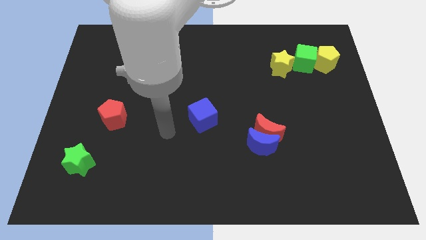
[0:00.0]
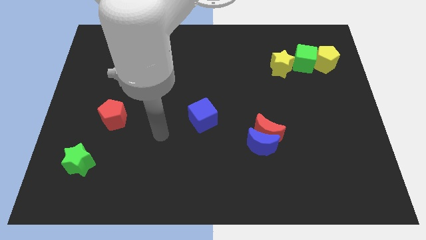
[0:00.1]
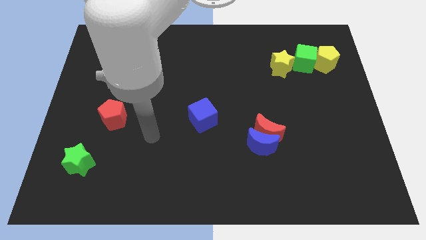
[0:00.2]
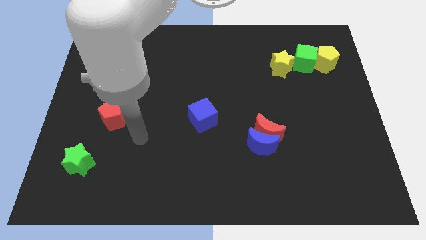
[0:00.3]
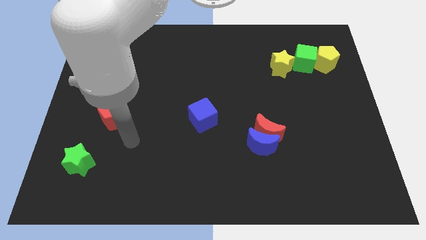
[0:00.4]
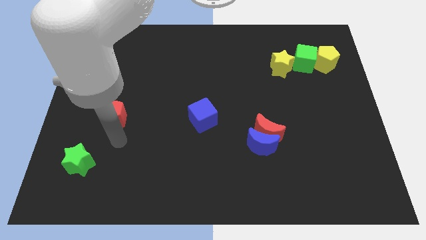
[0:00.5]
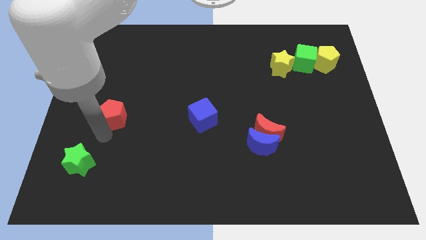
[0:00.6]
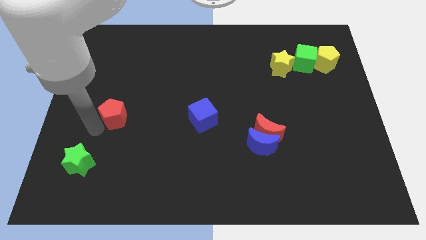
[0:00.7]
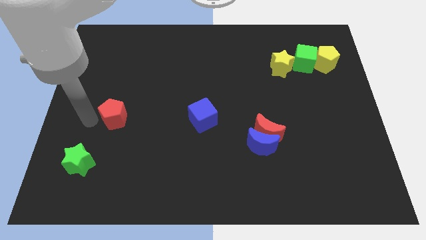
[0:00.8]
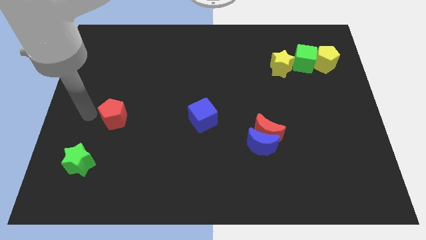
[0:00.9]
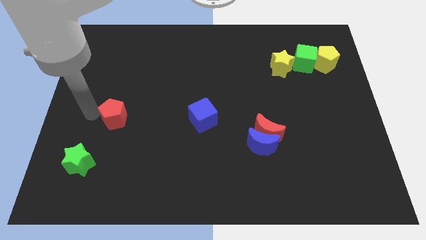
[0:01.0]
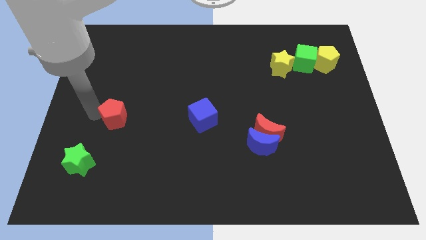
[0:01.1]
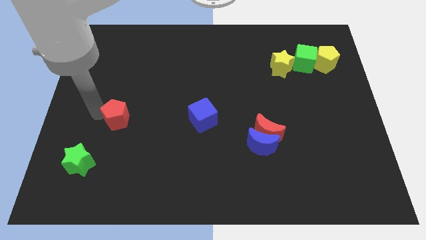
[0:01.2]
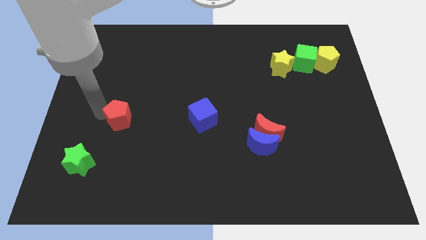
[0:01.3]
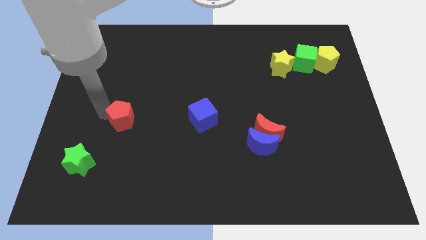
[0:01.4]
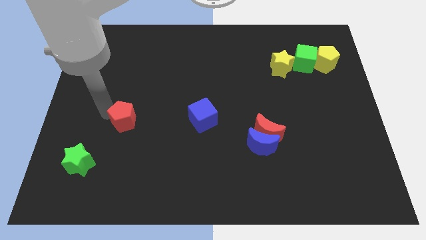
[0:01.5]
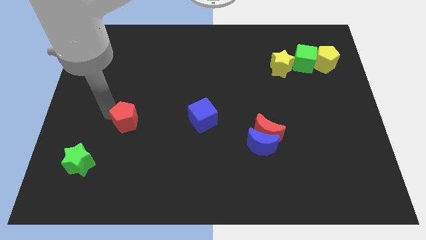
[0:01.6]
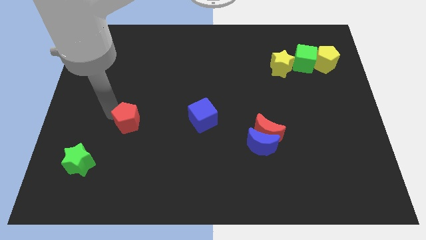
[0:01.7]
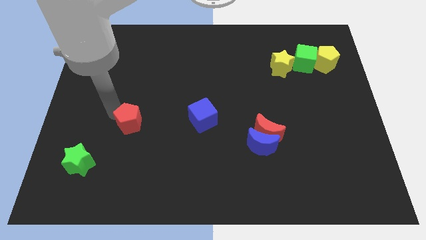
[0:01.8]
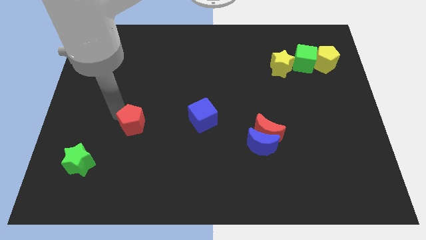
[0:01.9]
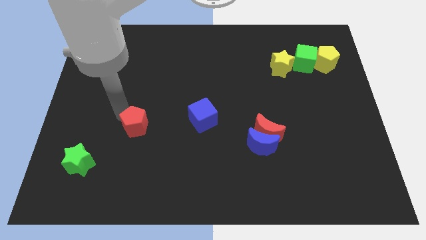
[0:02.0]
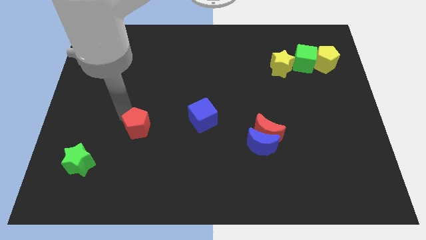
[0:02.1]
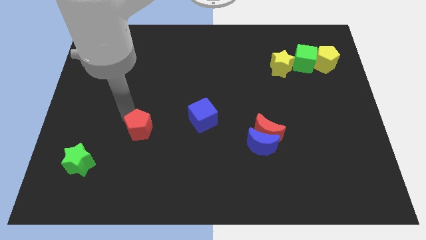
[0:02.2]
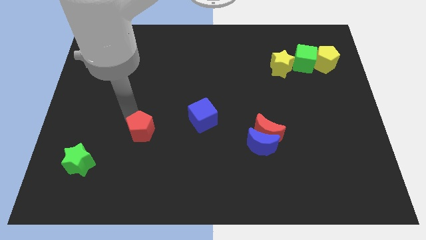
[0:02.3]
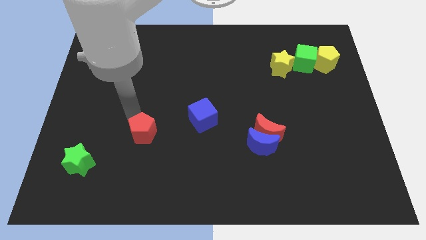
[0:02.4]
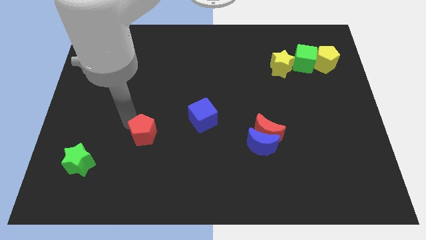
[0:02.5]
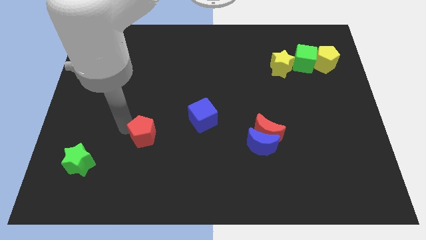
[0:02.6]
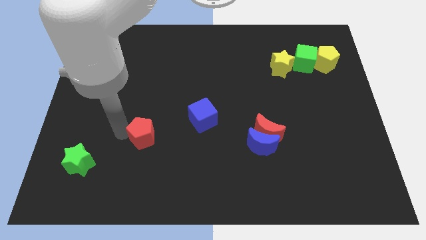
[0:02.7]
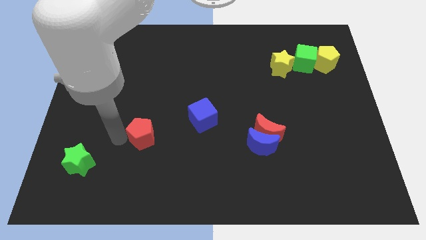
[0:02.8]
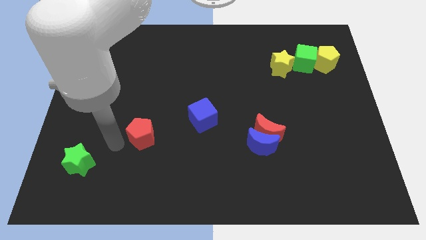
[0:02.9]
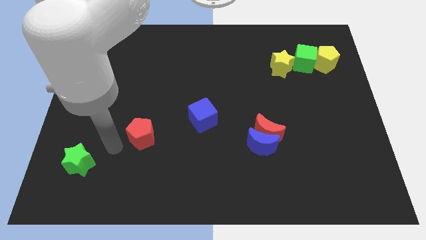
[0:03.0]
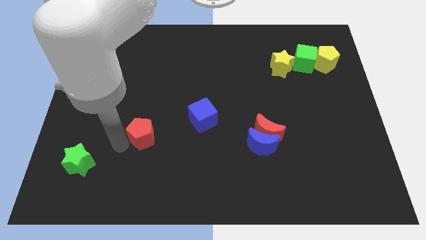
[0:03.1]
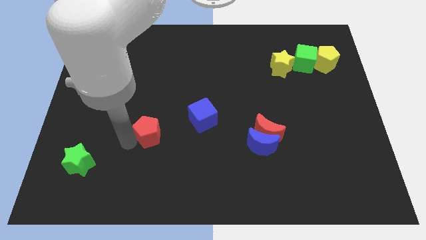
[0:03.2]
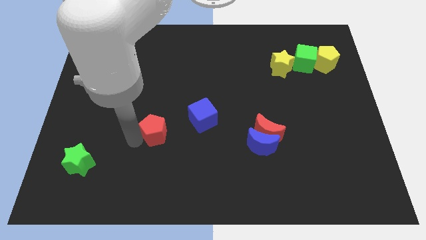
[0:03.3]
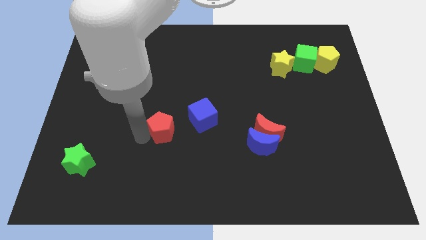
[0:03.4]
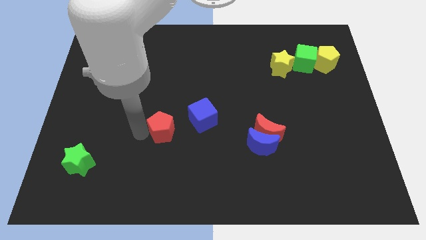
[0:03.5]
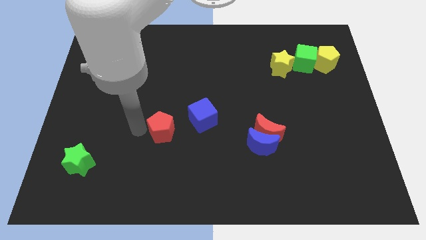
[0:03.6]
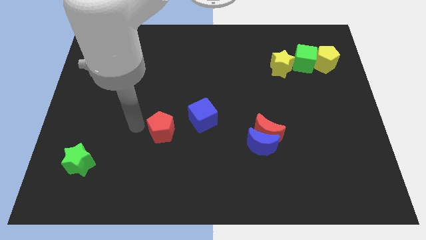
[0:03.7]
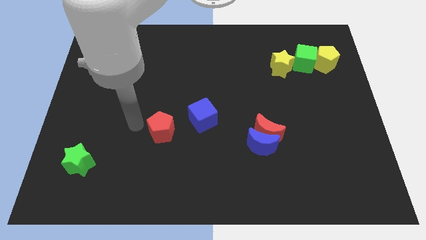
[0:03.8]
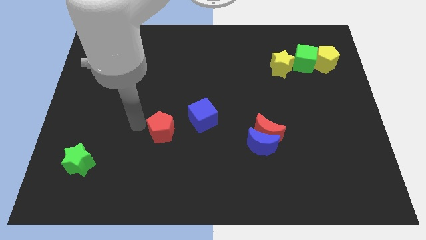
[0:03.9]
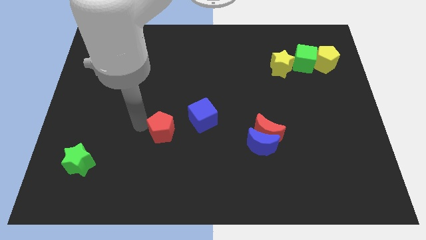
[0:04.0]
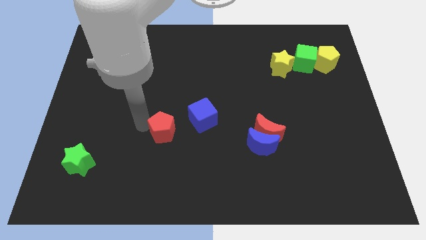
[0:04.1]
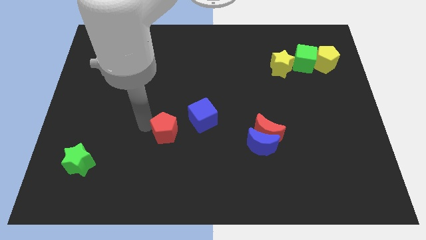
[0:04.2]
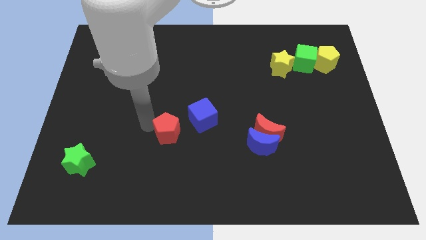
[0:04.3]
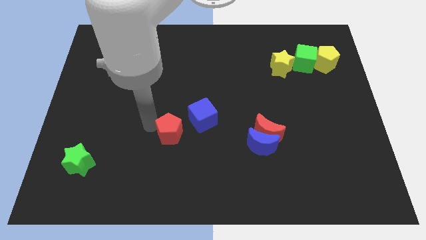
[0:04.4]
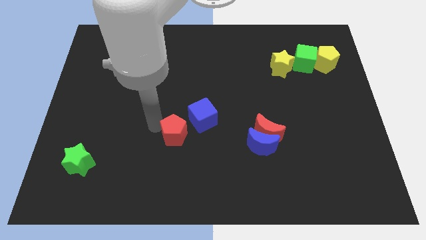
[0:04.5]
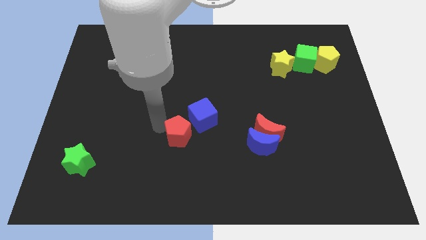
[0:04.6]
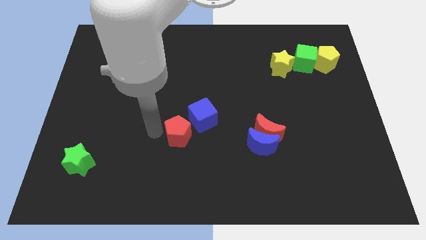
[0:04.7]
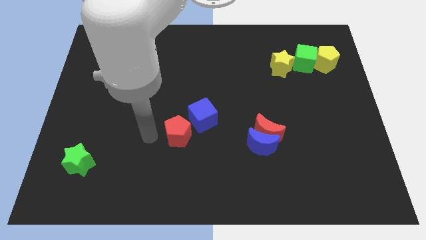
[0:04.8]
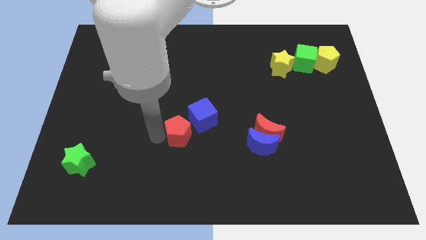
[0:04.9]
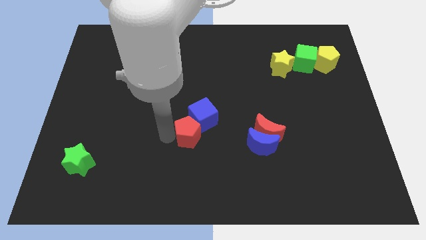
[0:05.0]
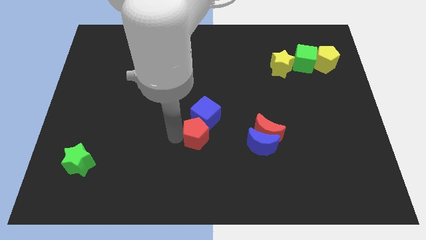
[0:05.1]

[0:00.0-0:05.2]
push the red pentagon to the left side of the red moon

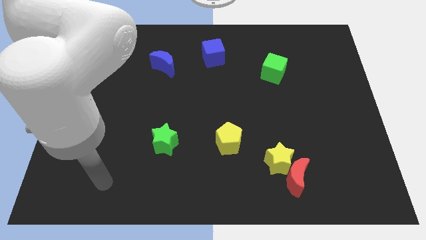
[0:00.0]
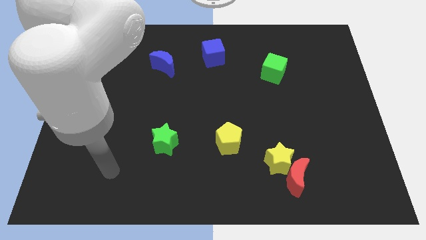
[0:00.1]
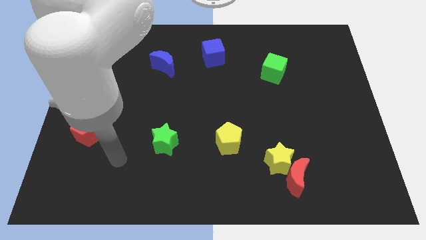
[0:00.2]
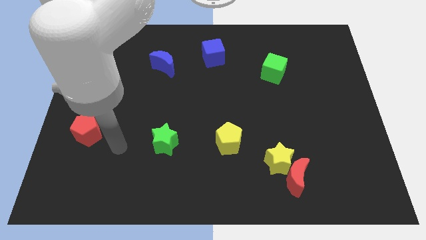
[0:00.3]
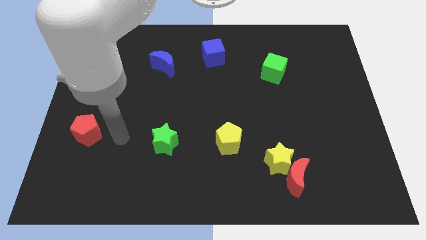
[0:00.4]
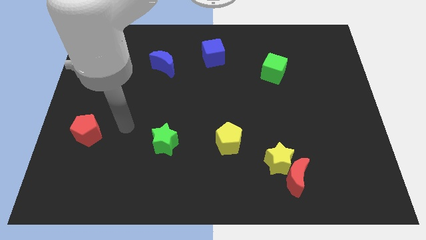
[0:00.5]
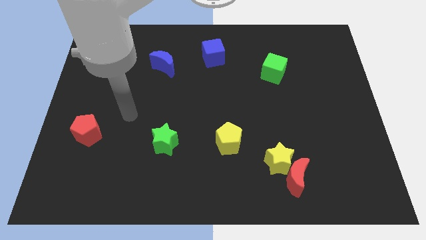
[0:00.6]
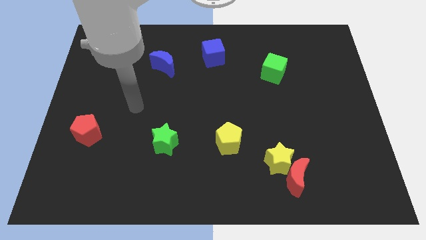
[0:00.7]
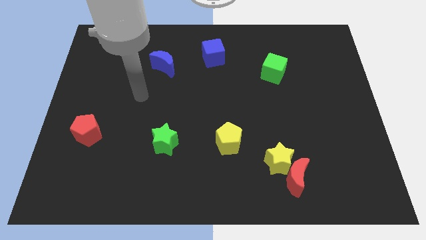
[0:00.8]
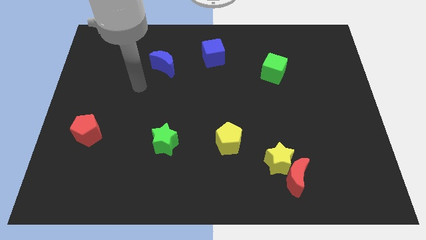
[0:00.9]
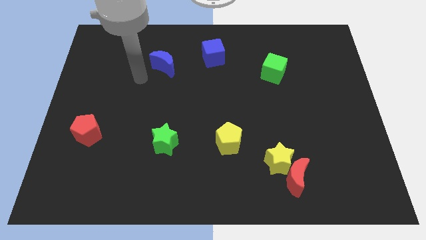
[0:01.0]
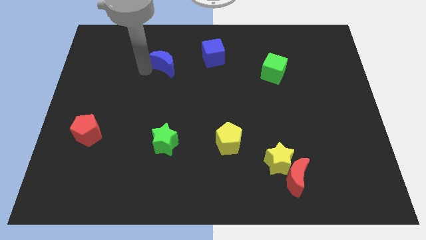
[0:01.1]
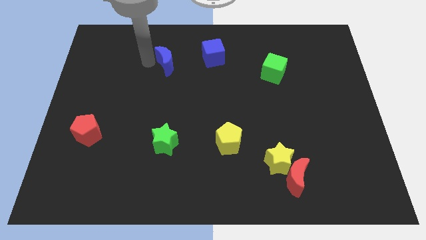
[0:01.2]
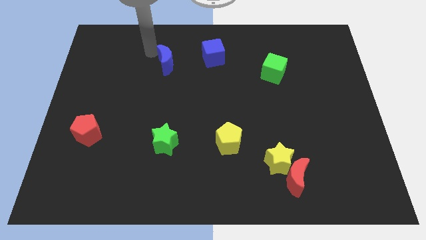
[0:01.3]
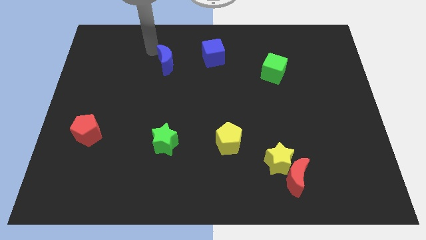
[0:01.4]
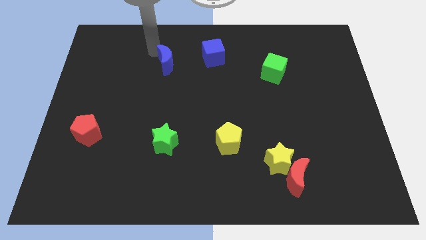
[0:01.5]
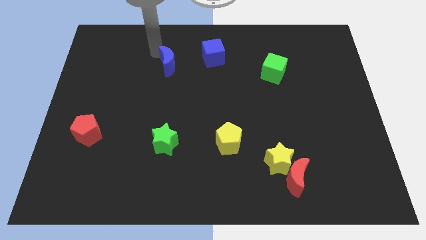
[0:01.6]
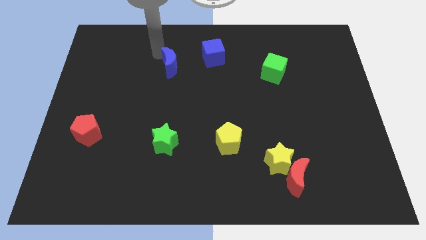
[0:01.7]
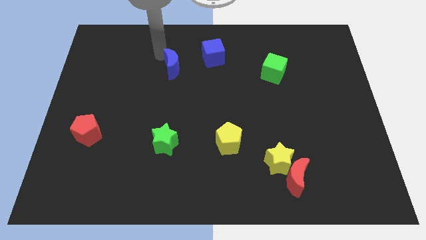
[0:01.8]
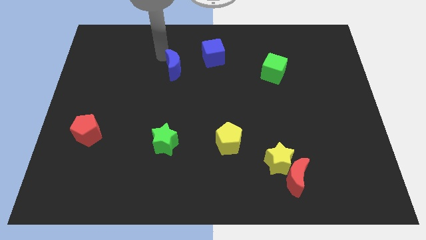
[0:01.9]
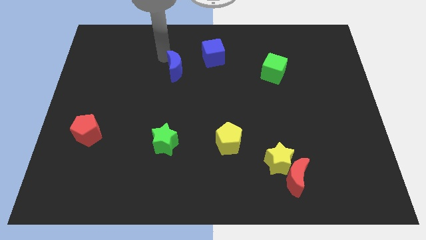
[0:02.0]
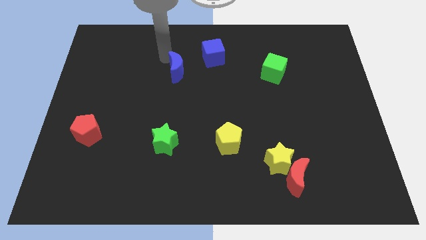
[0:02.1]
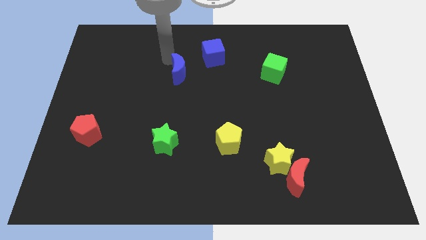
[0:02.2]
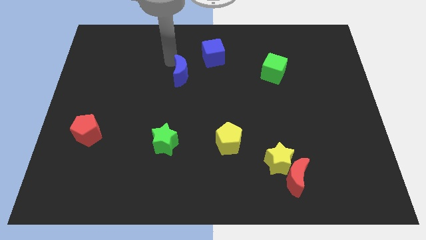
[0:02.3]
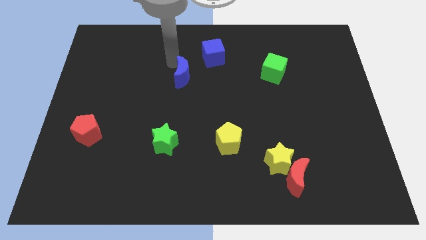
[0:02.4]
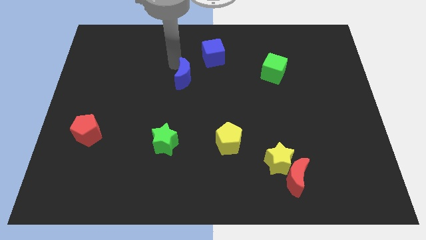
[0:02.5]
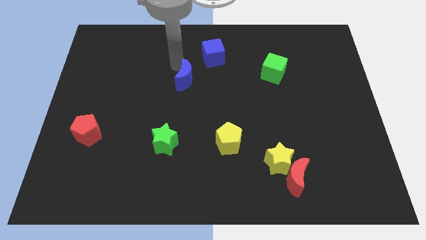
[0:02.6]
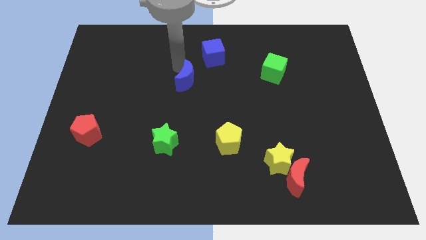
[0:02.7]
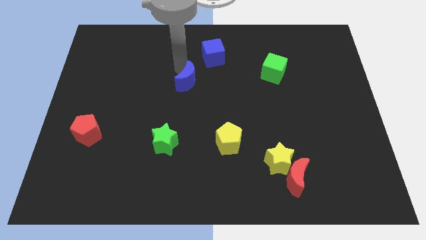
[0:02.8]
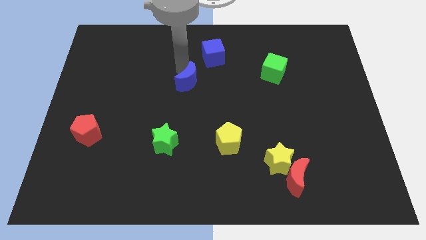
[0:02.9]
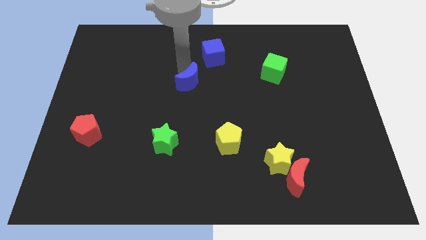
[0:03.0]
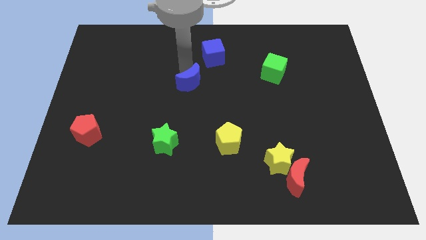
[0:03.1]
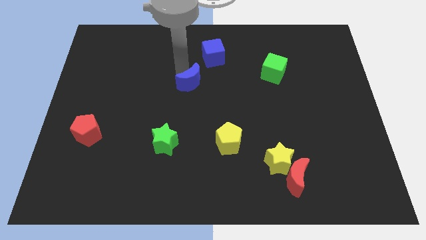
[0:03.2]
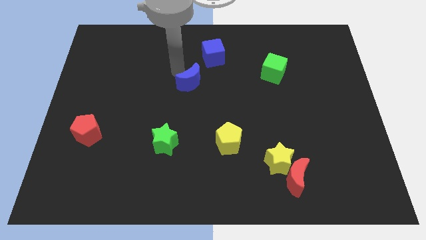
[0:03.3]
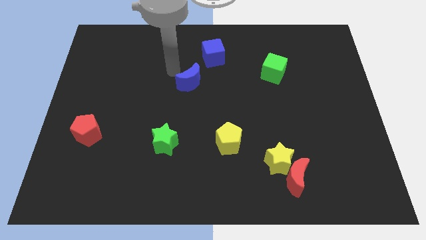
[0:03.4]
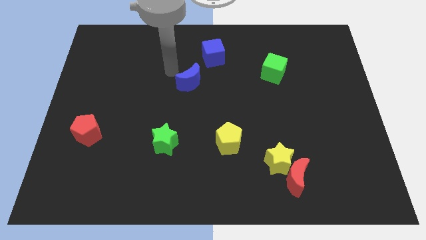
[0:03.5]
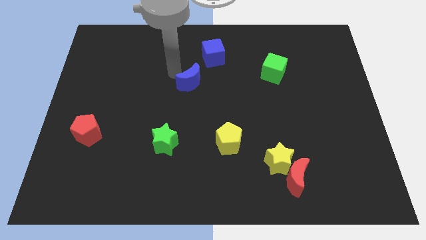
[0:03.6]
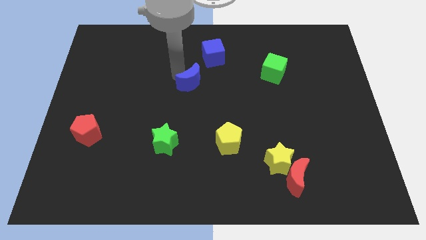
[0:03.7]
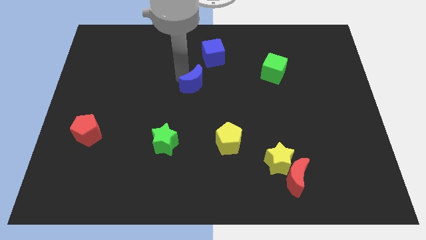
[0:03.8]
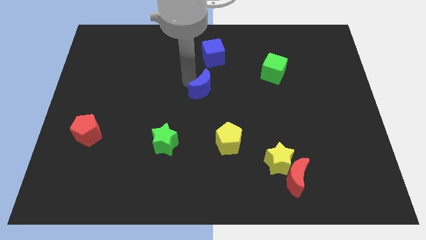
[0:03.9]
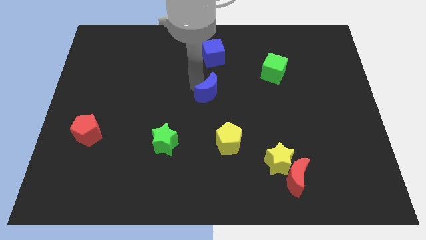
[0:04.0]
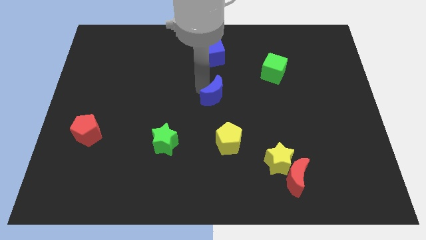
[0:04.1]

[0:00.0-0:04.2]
move the blue moon above the yellow pentagon
